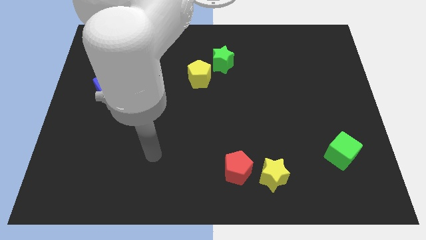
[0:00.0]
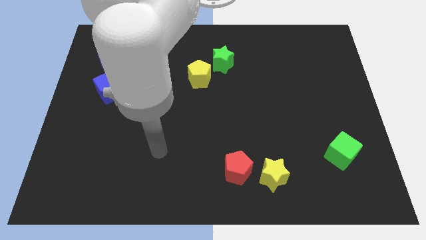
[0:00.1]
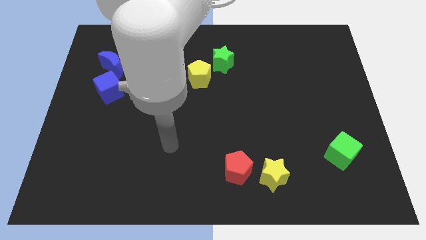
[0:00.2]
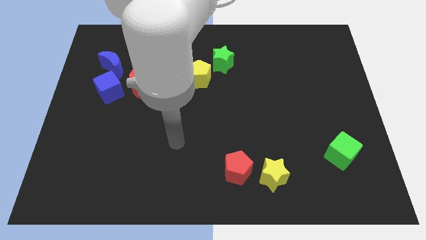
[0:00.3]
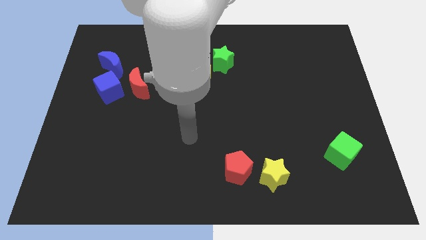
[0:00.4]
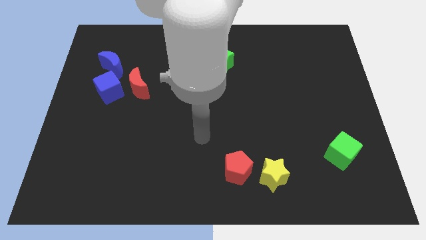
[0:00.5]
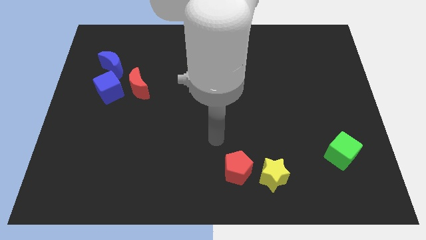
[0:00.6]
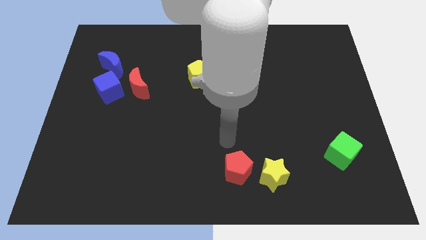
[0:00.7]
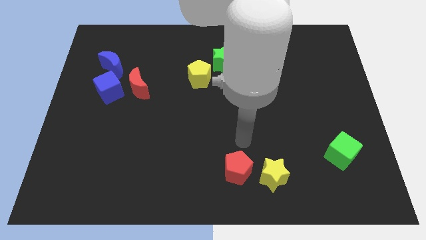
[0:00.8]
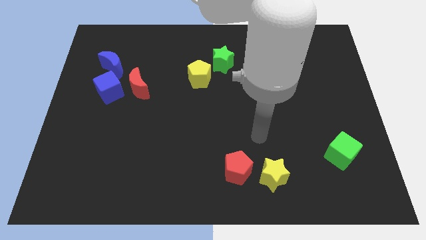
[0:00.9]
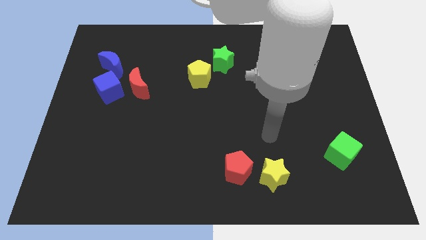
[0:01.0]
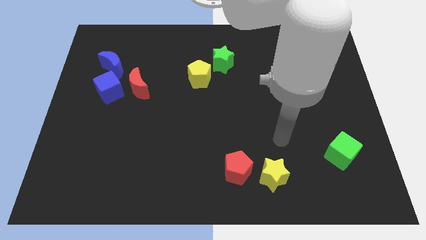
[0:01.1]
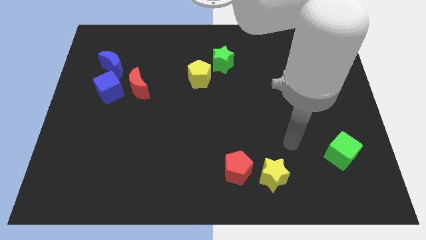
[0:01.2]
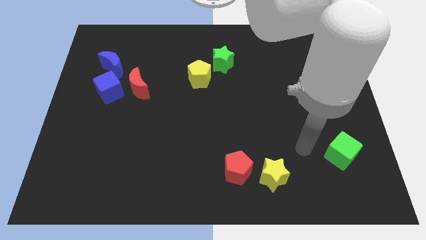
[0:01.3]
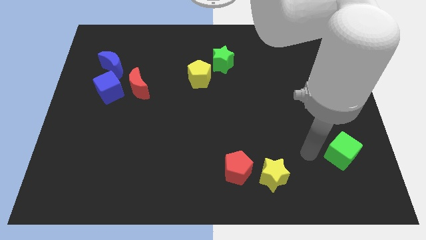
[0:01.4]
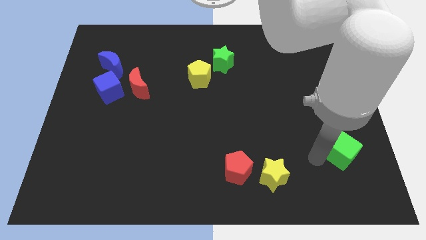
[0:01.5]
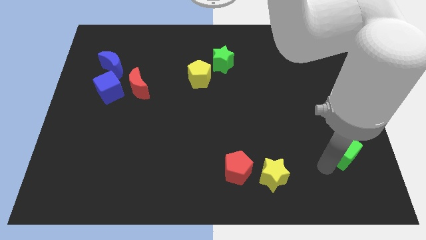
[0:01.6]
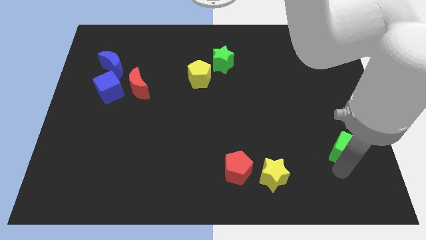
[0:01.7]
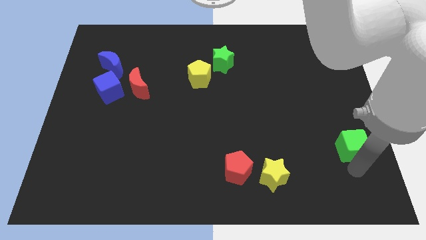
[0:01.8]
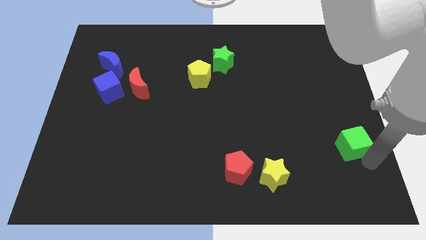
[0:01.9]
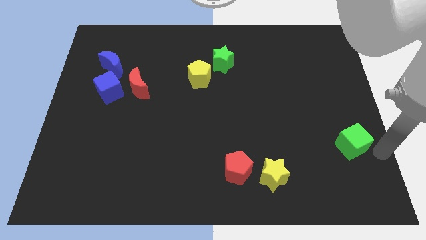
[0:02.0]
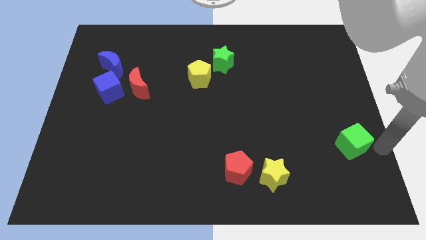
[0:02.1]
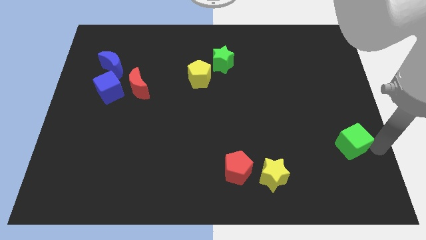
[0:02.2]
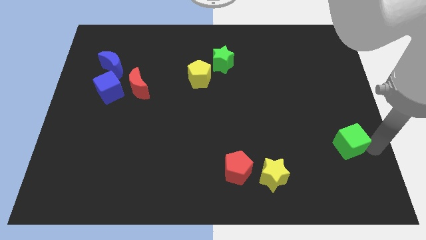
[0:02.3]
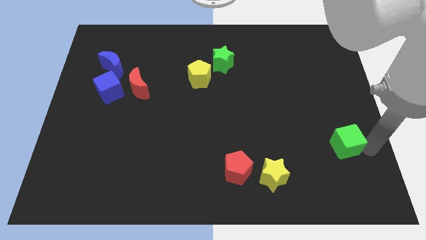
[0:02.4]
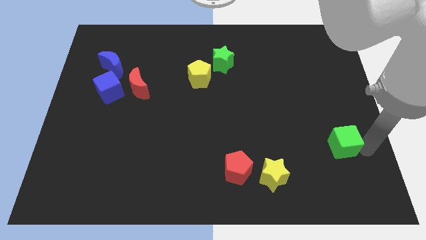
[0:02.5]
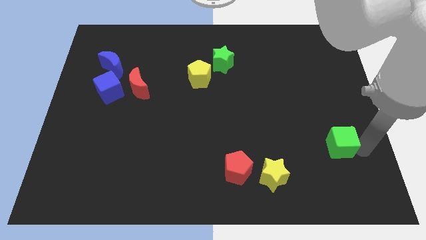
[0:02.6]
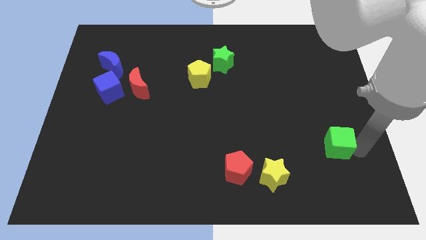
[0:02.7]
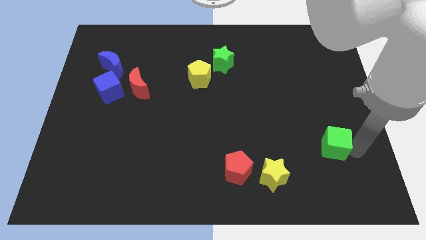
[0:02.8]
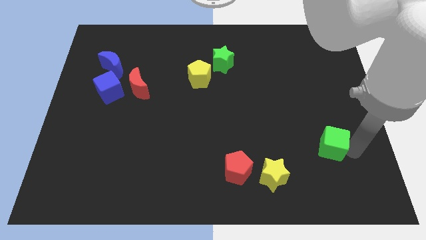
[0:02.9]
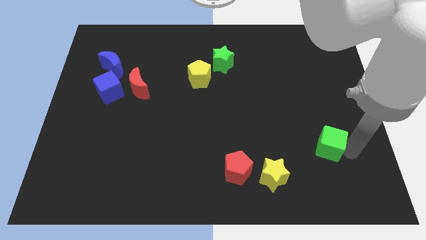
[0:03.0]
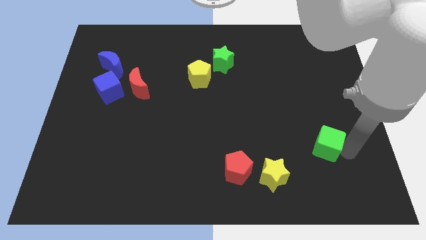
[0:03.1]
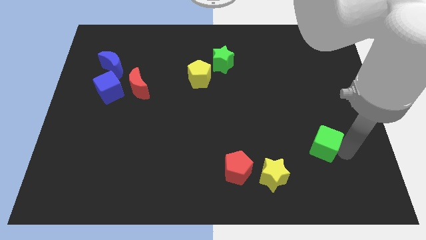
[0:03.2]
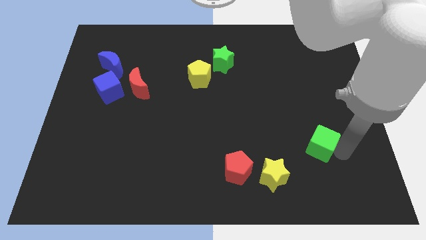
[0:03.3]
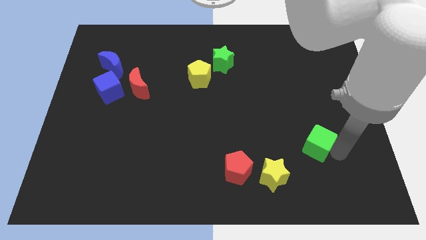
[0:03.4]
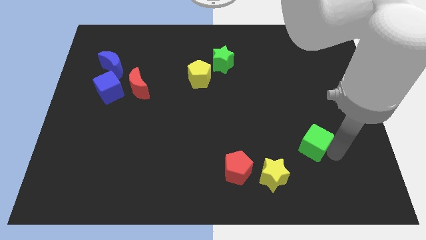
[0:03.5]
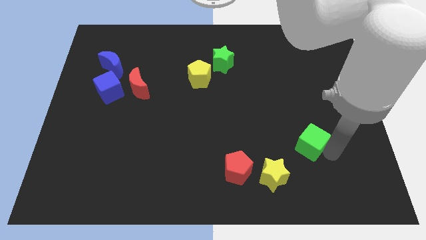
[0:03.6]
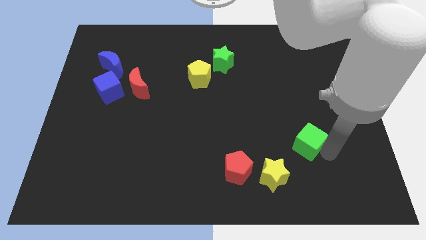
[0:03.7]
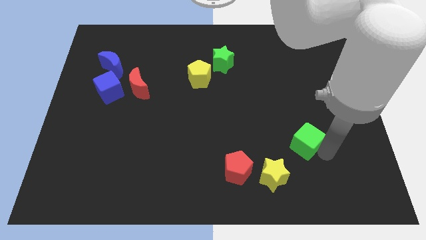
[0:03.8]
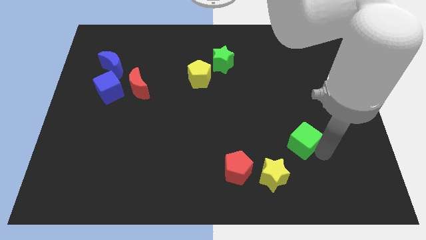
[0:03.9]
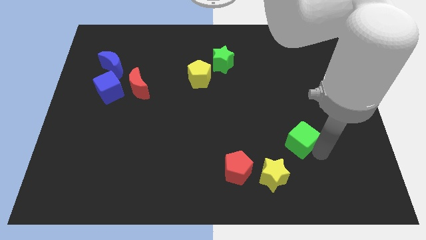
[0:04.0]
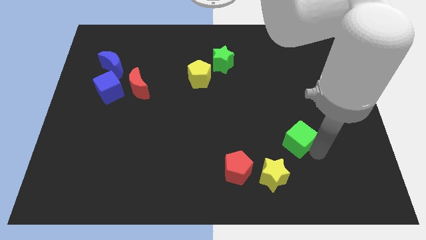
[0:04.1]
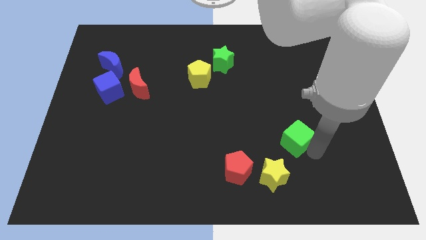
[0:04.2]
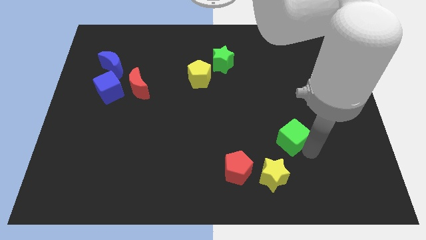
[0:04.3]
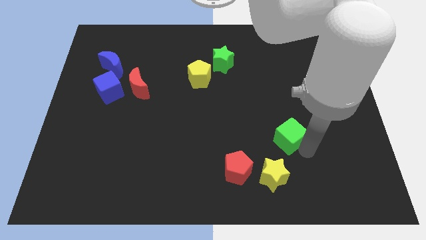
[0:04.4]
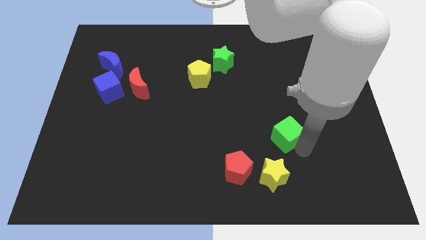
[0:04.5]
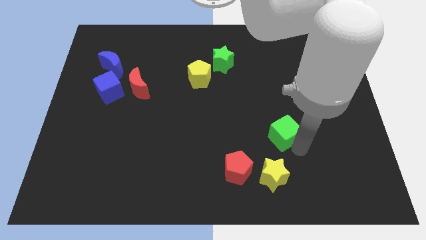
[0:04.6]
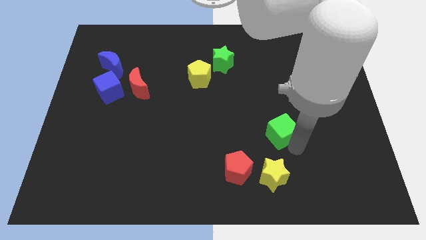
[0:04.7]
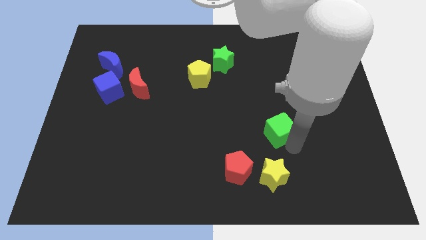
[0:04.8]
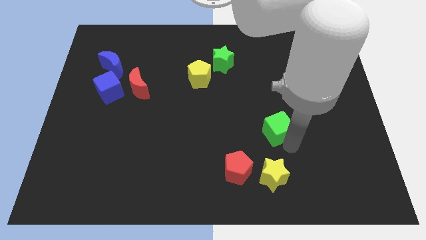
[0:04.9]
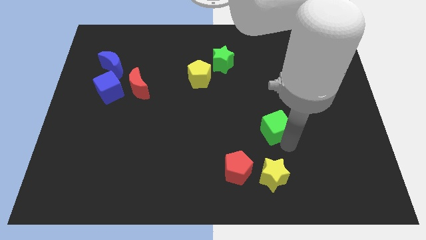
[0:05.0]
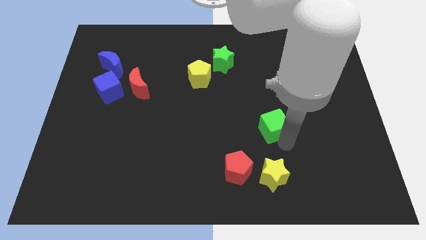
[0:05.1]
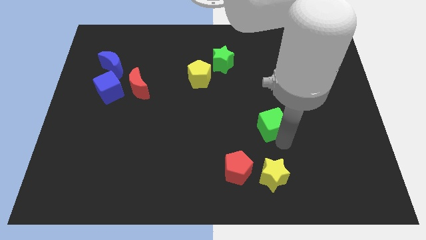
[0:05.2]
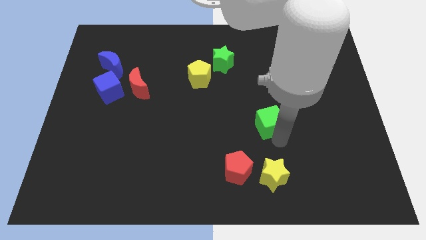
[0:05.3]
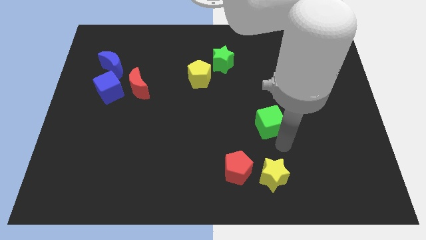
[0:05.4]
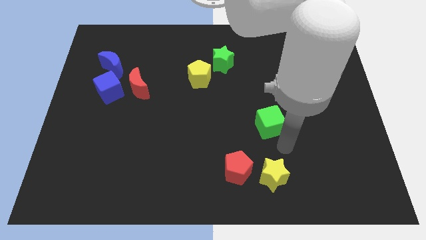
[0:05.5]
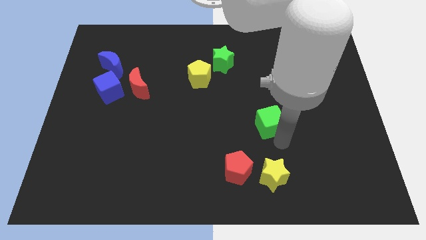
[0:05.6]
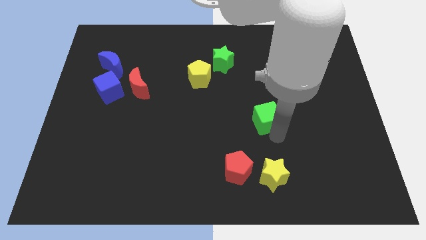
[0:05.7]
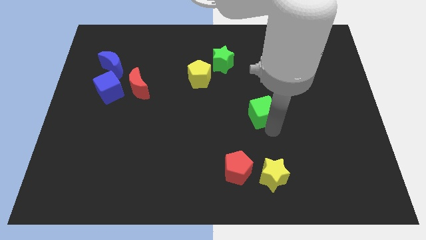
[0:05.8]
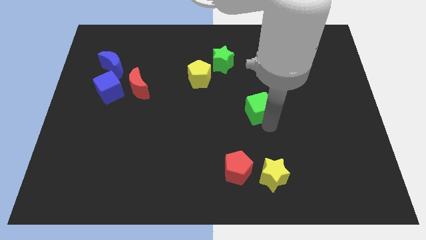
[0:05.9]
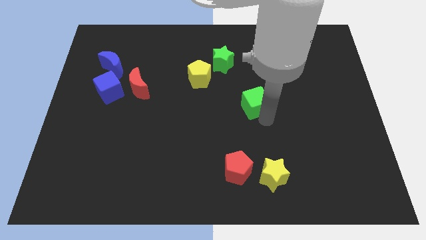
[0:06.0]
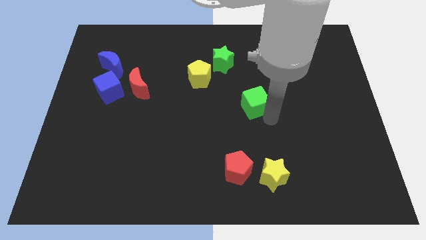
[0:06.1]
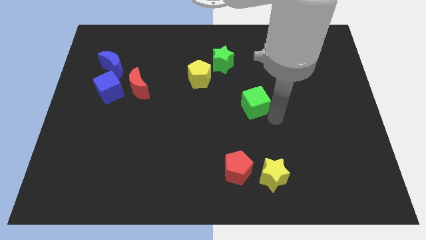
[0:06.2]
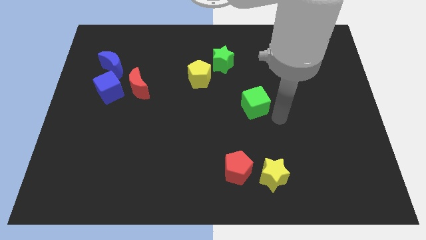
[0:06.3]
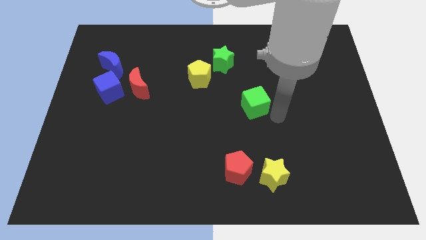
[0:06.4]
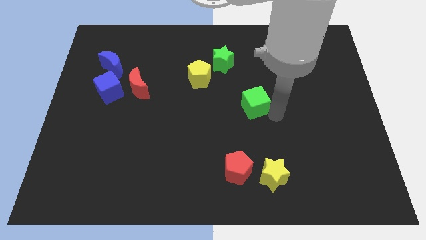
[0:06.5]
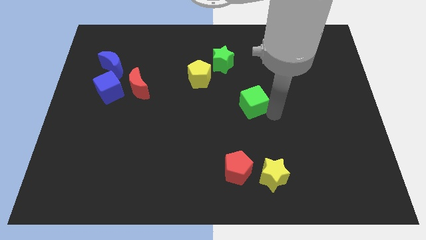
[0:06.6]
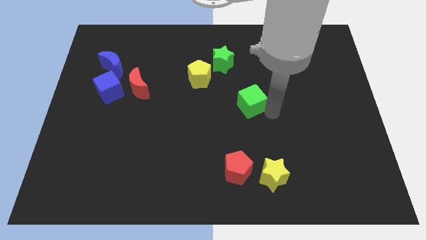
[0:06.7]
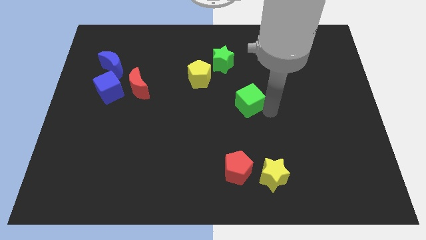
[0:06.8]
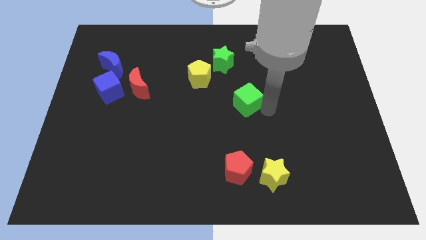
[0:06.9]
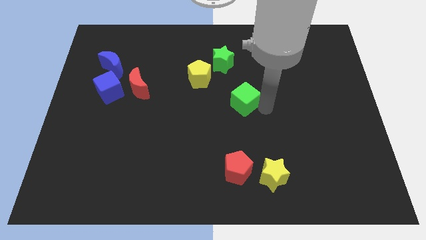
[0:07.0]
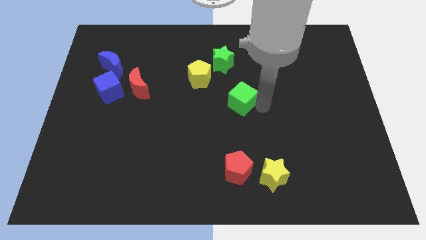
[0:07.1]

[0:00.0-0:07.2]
push the green cube diagonally down and to the right of the yellow pentagon

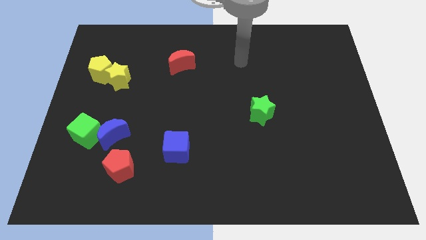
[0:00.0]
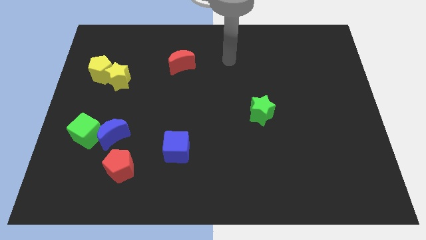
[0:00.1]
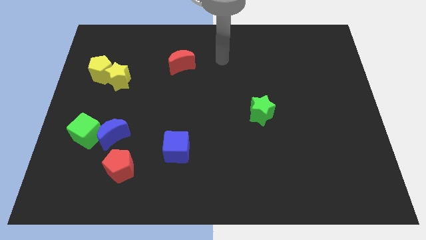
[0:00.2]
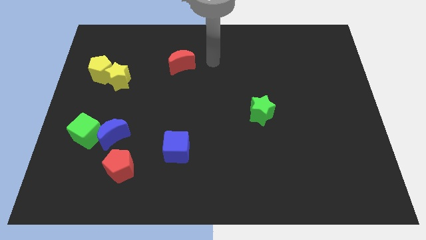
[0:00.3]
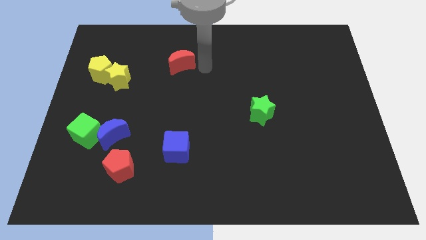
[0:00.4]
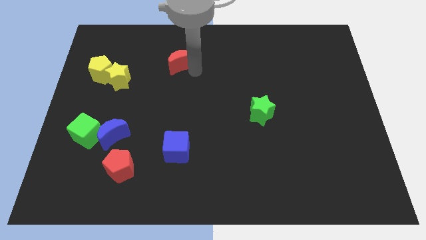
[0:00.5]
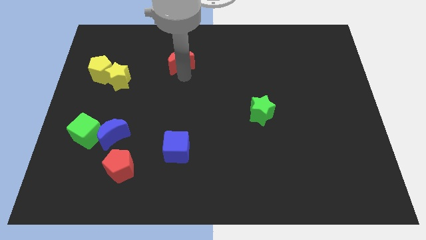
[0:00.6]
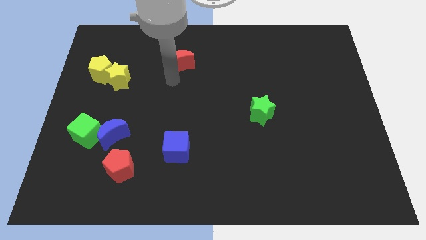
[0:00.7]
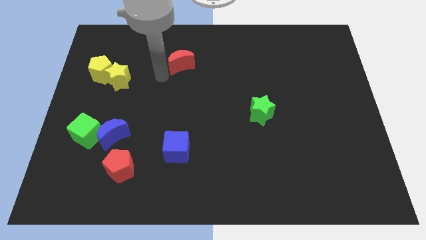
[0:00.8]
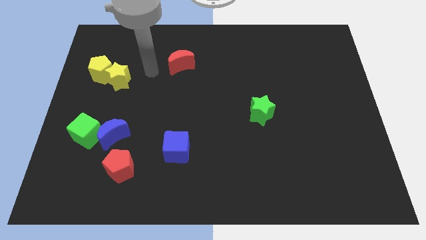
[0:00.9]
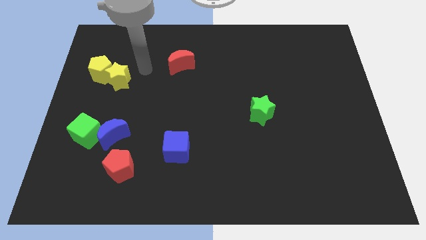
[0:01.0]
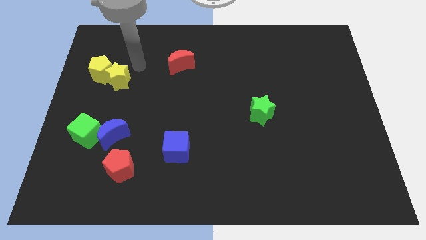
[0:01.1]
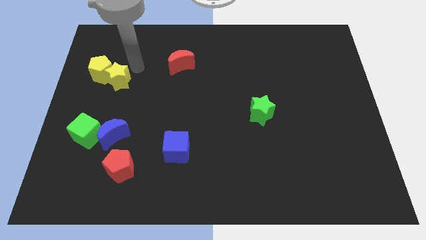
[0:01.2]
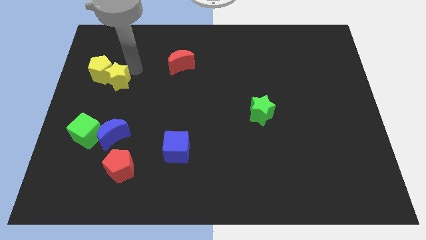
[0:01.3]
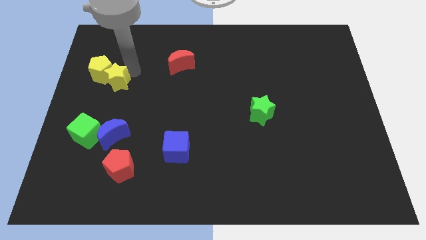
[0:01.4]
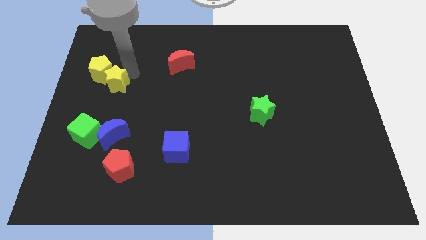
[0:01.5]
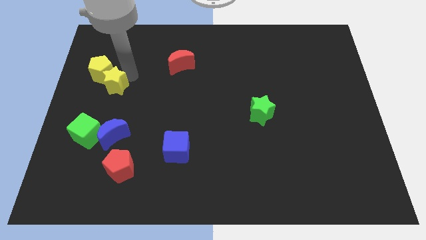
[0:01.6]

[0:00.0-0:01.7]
move the yellow star to the top side of the green cube

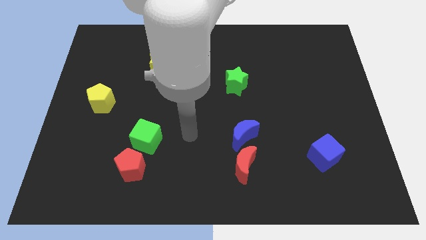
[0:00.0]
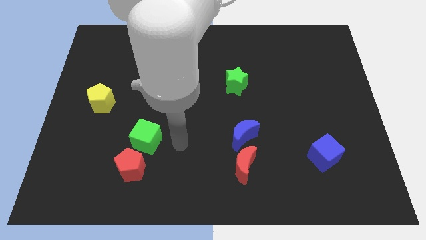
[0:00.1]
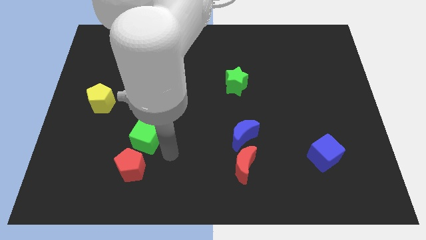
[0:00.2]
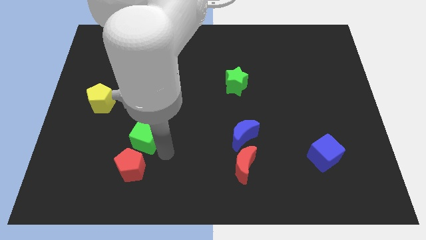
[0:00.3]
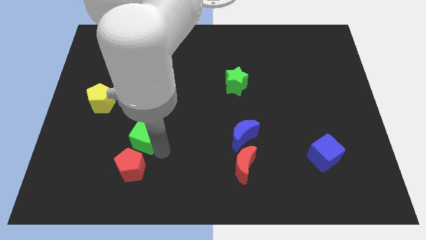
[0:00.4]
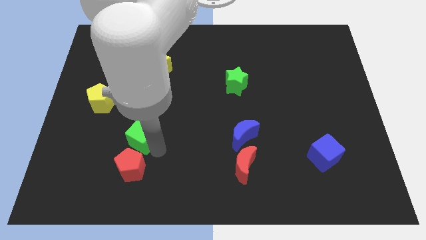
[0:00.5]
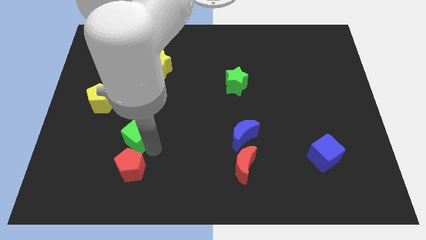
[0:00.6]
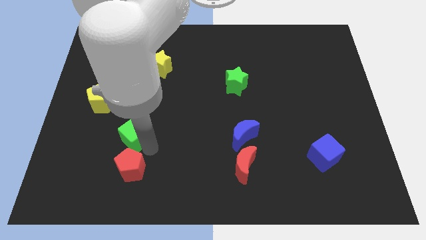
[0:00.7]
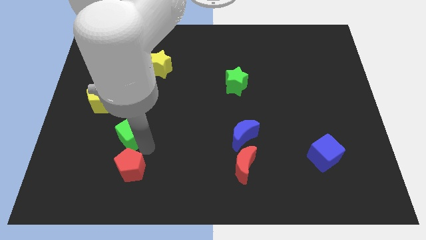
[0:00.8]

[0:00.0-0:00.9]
slide the green cube to the bottom right of the yellow pentagon
